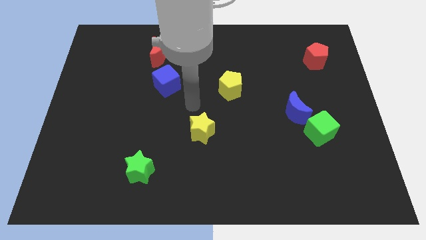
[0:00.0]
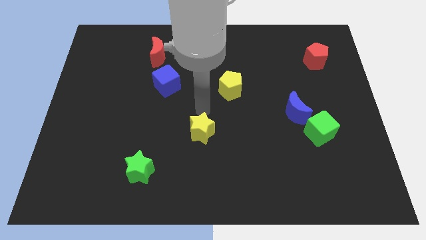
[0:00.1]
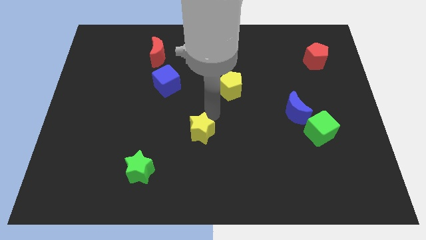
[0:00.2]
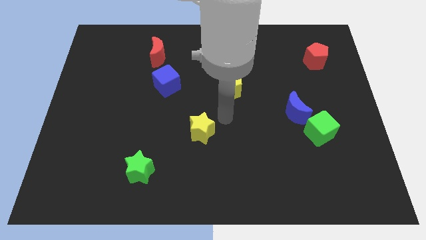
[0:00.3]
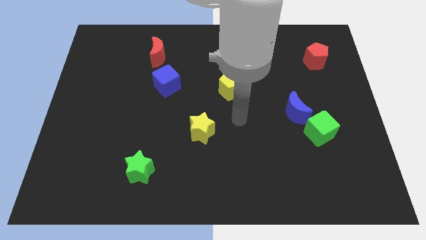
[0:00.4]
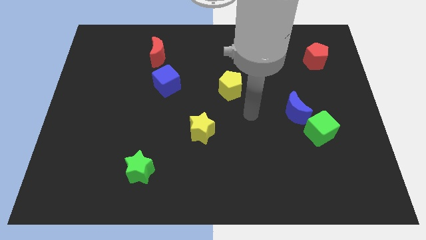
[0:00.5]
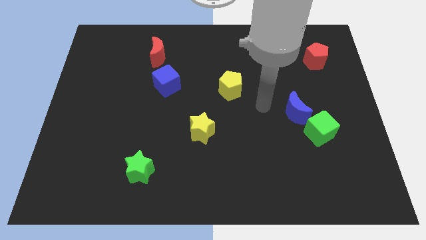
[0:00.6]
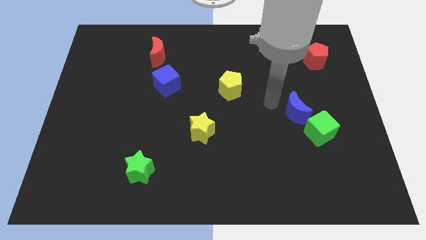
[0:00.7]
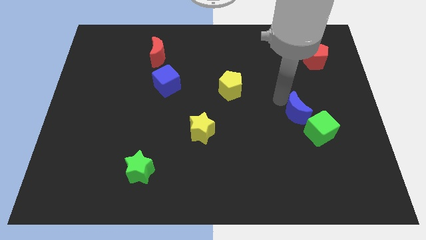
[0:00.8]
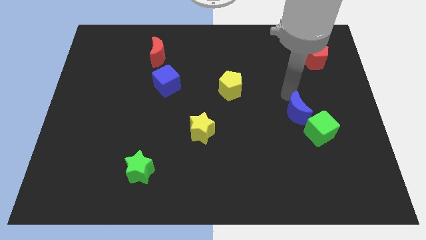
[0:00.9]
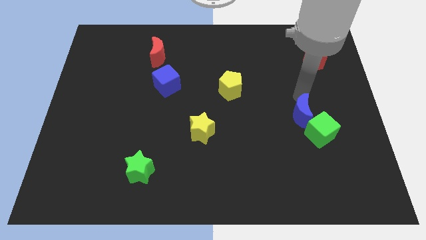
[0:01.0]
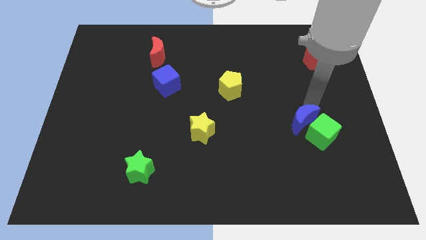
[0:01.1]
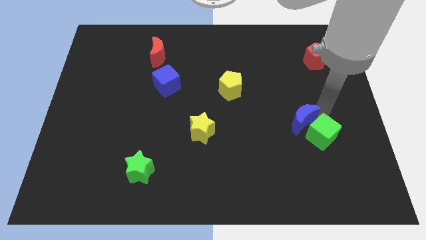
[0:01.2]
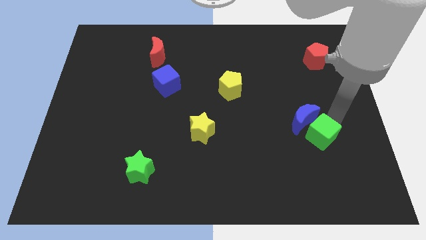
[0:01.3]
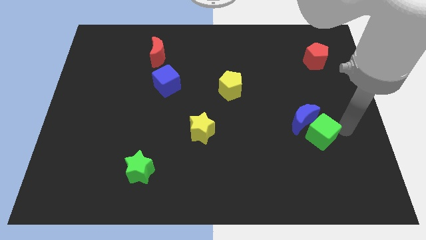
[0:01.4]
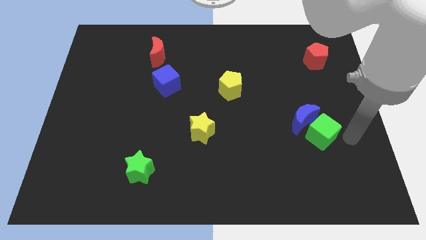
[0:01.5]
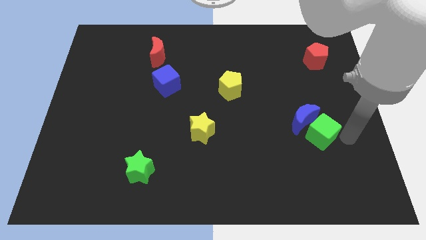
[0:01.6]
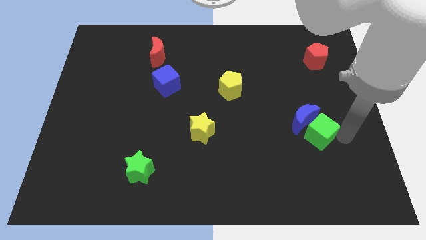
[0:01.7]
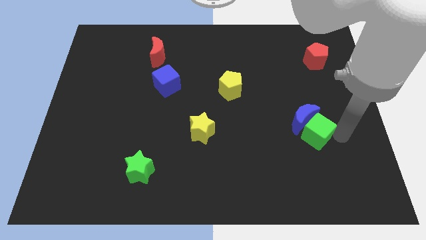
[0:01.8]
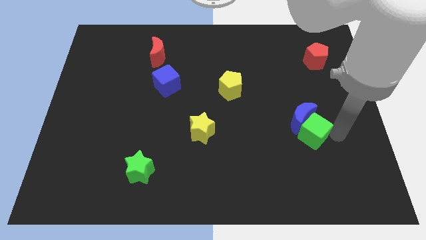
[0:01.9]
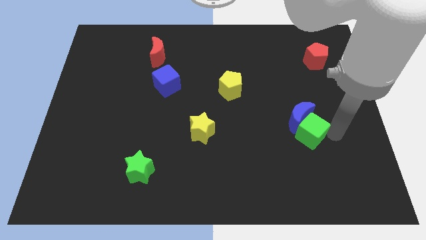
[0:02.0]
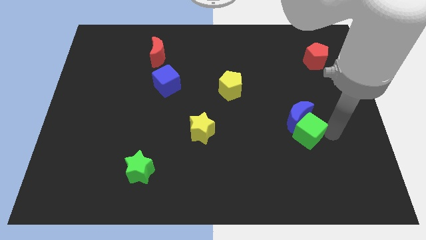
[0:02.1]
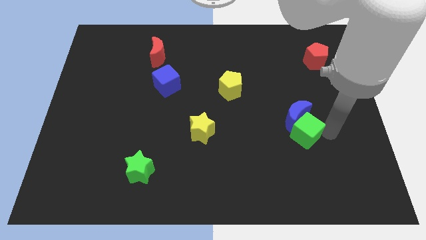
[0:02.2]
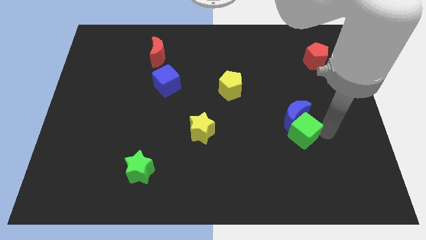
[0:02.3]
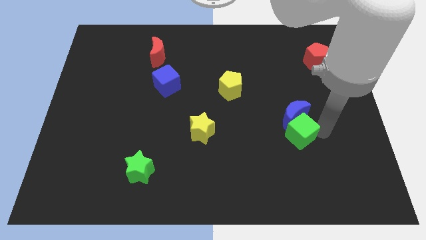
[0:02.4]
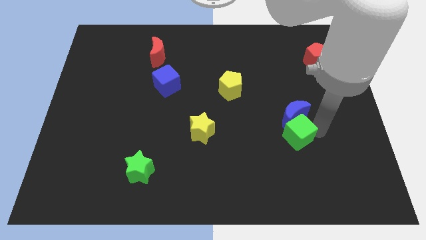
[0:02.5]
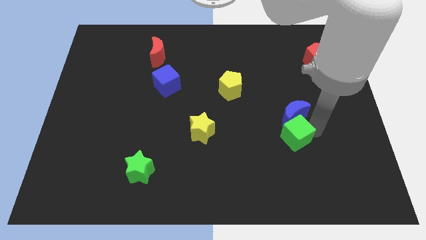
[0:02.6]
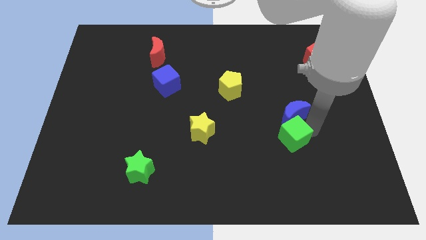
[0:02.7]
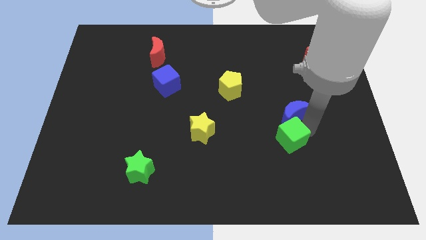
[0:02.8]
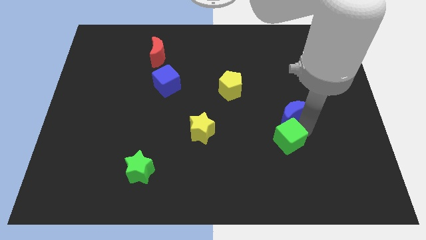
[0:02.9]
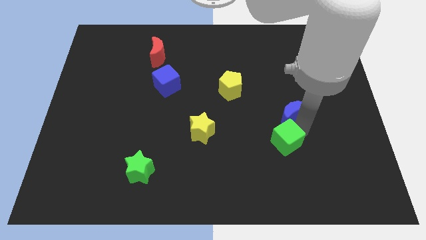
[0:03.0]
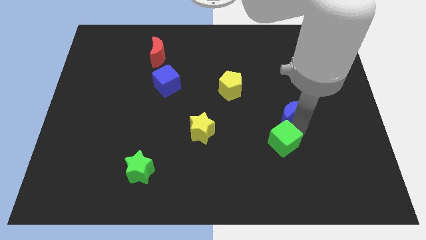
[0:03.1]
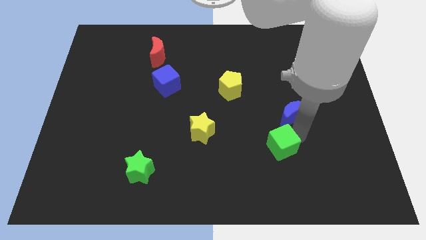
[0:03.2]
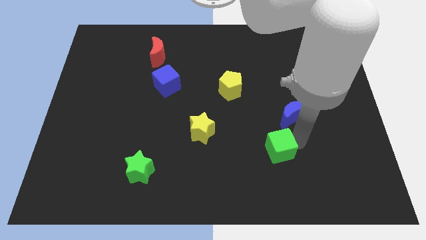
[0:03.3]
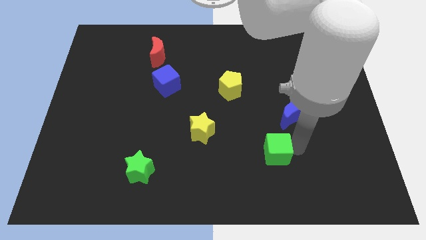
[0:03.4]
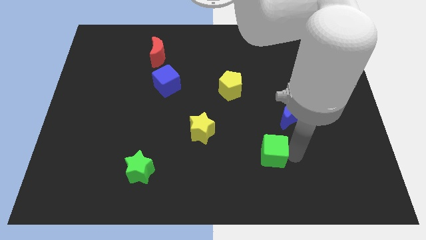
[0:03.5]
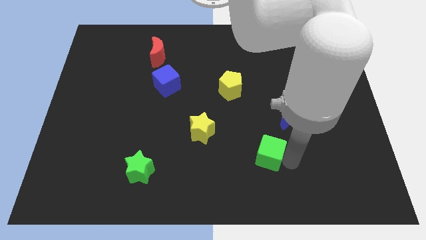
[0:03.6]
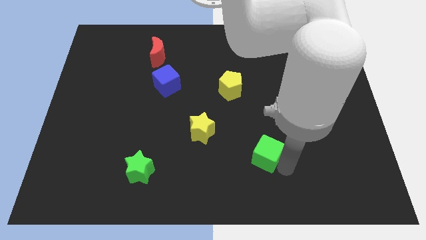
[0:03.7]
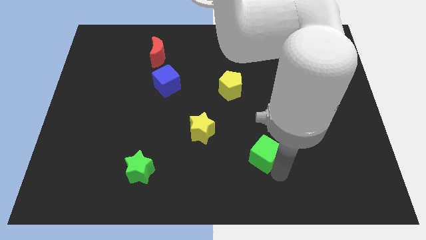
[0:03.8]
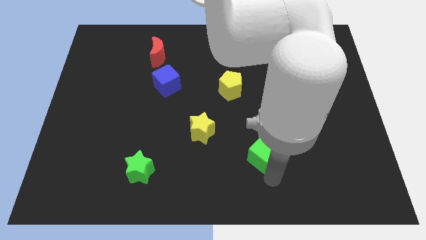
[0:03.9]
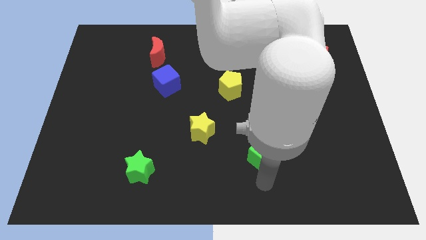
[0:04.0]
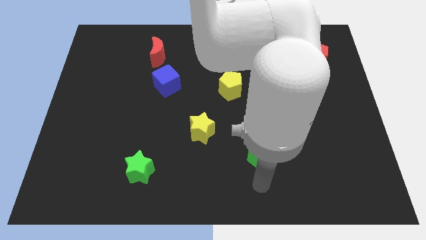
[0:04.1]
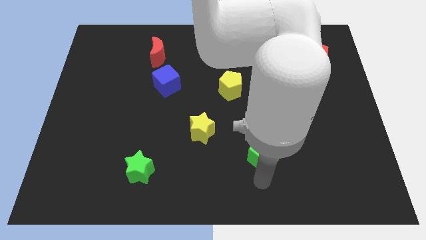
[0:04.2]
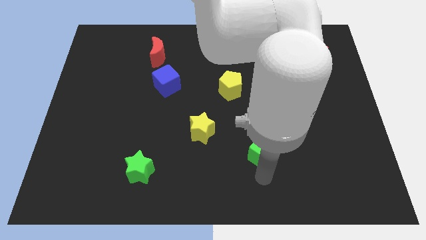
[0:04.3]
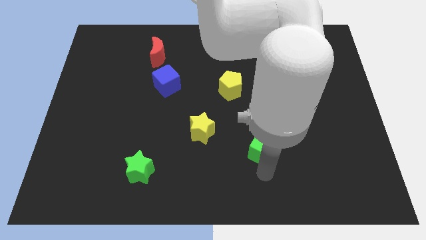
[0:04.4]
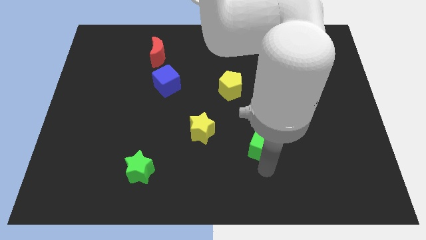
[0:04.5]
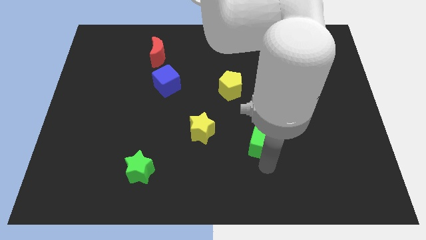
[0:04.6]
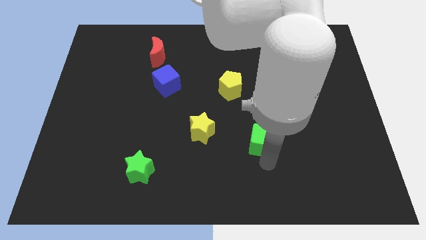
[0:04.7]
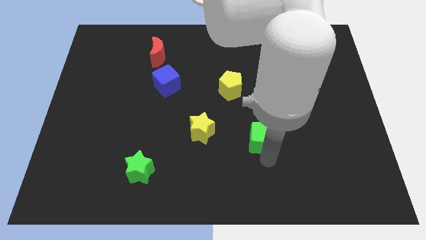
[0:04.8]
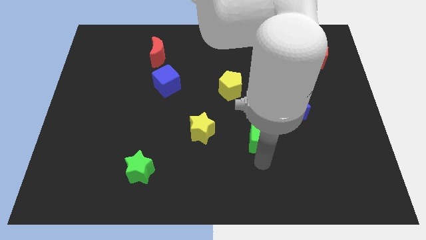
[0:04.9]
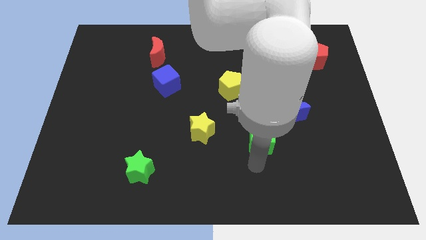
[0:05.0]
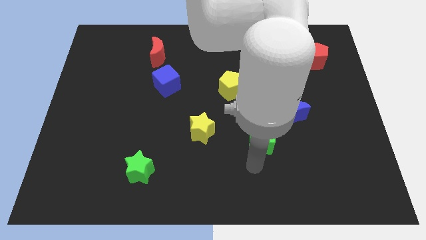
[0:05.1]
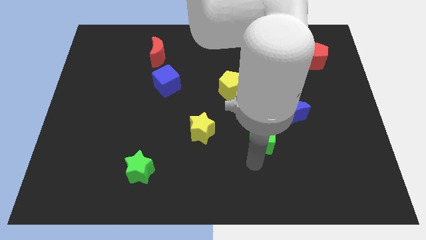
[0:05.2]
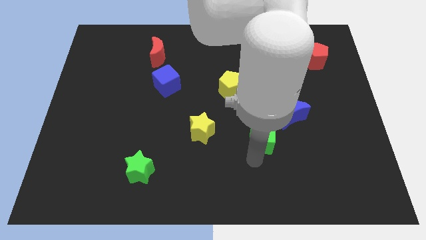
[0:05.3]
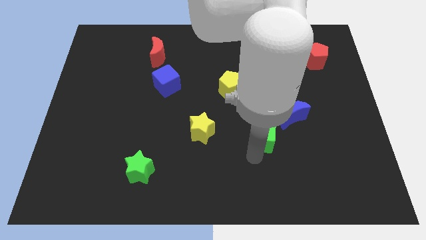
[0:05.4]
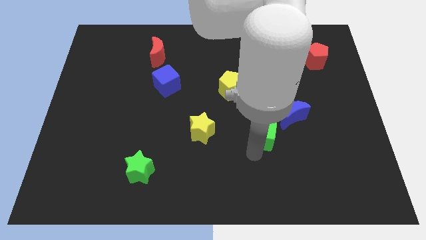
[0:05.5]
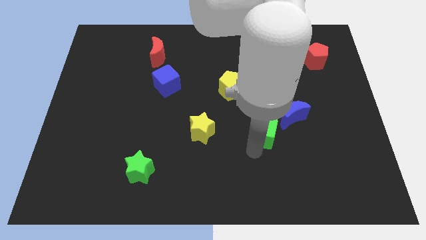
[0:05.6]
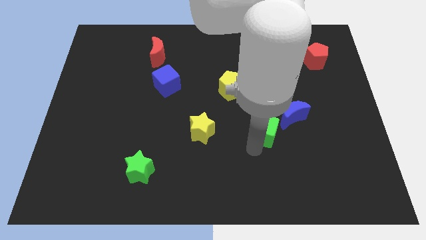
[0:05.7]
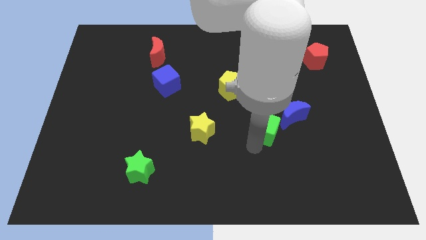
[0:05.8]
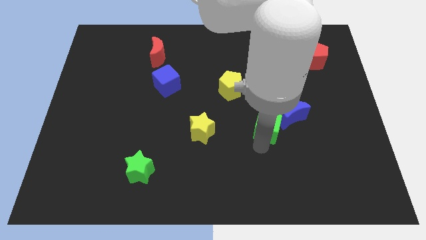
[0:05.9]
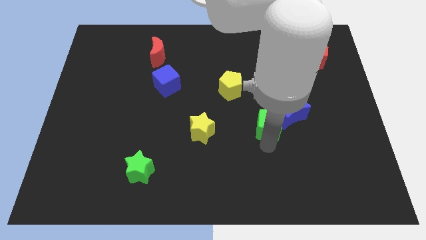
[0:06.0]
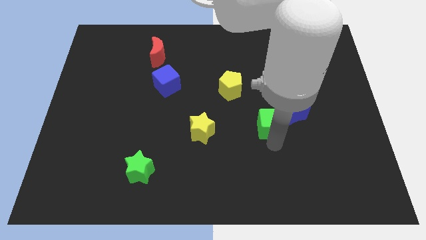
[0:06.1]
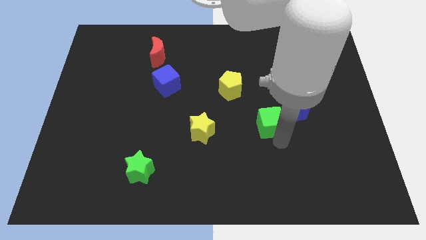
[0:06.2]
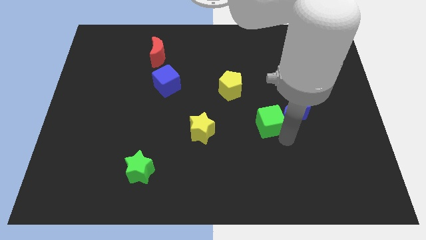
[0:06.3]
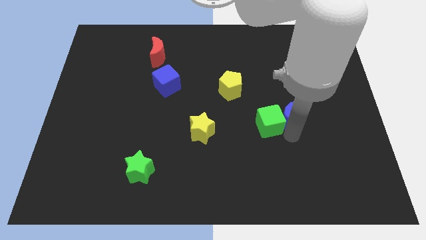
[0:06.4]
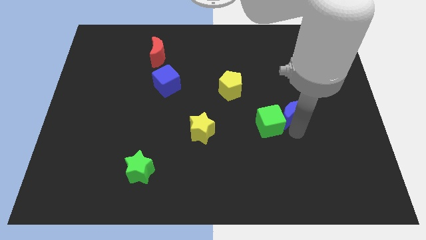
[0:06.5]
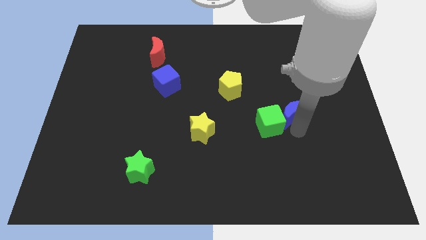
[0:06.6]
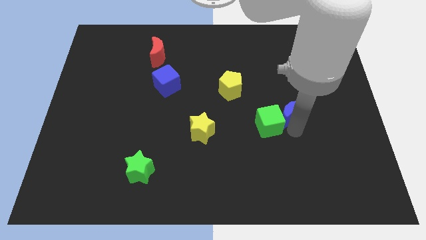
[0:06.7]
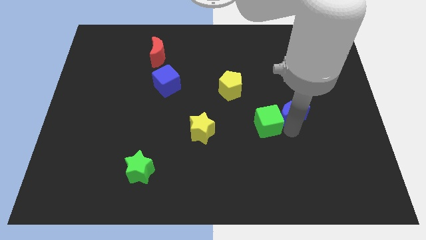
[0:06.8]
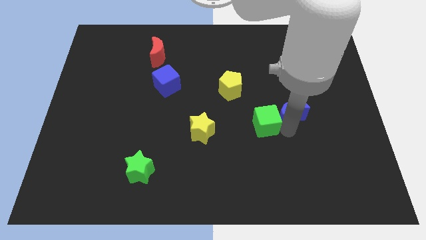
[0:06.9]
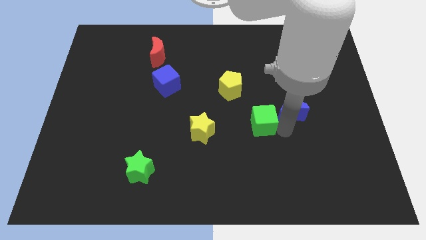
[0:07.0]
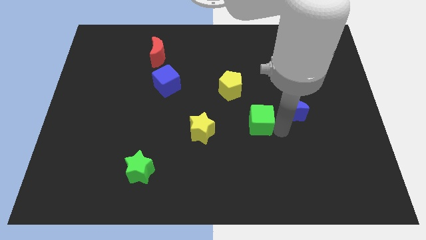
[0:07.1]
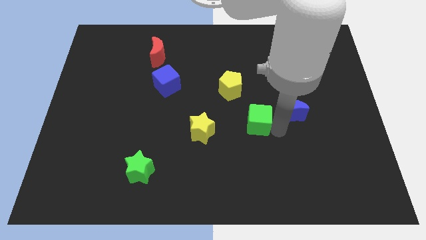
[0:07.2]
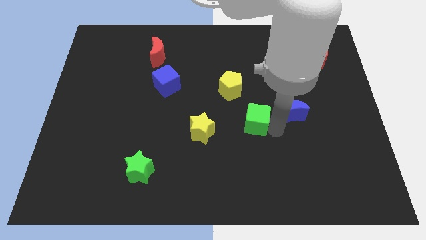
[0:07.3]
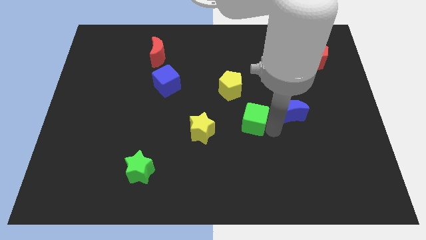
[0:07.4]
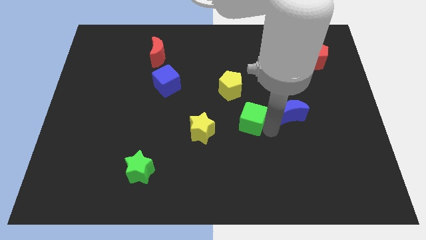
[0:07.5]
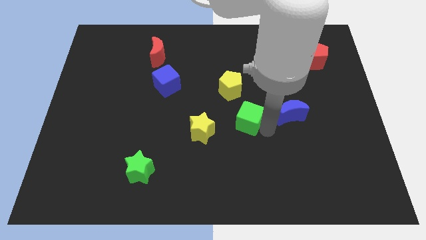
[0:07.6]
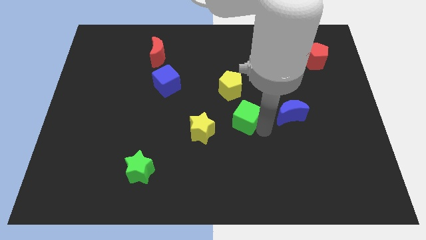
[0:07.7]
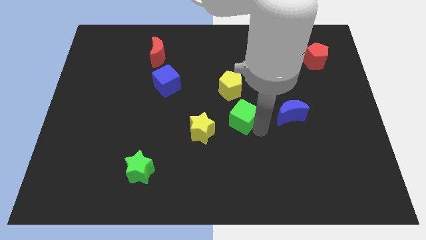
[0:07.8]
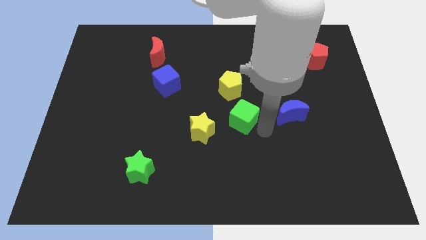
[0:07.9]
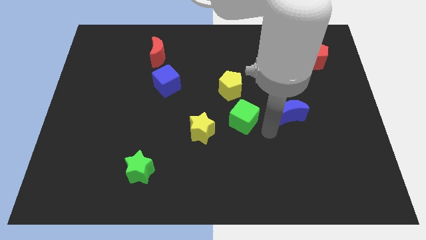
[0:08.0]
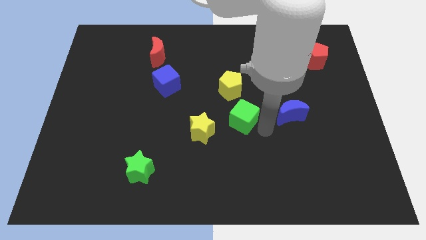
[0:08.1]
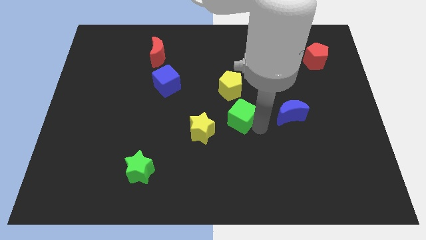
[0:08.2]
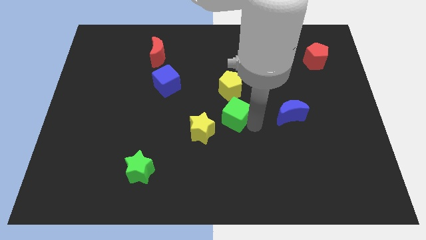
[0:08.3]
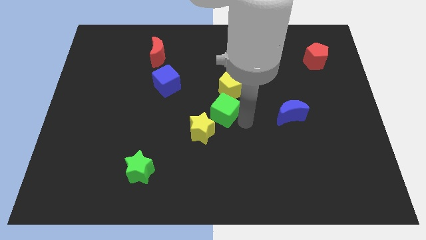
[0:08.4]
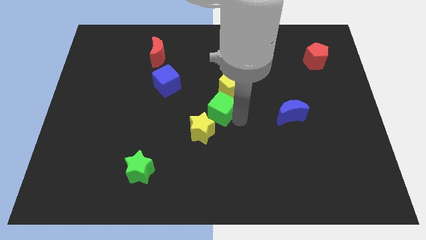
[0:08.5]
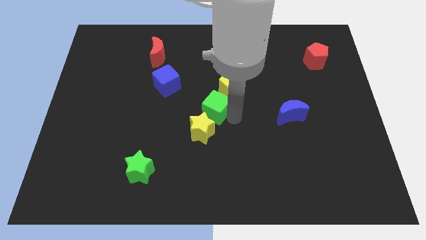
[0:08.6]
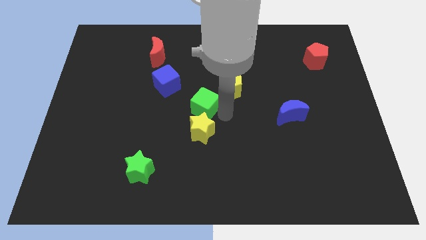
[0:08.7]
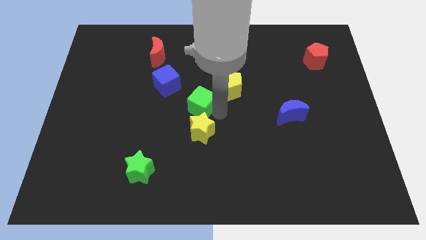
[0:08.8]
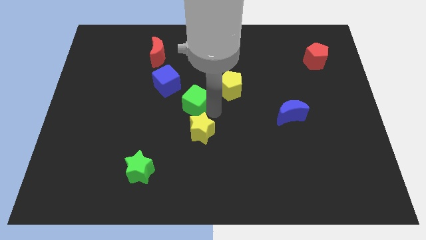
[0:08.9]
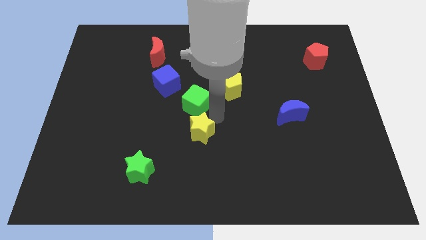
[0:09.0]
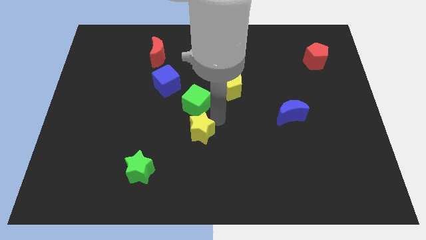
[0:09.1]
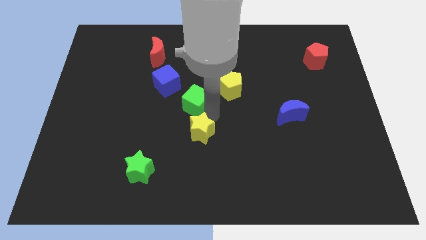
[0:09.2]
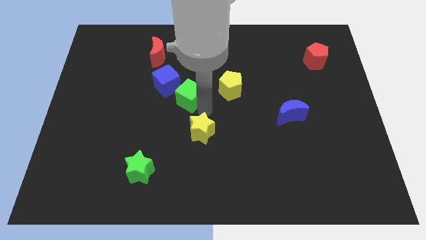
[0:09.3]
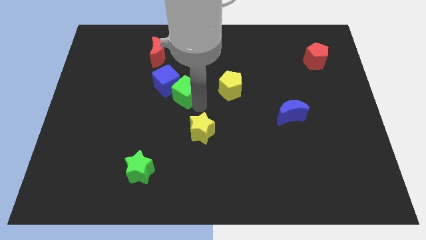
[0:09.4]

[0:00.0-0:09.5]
slide the green cube close to the blue cube
